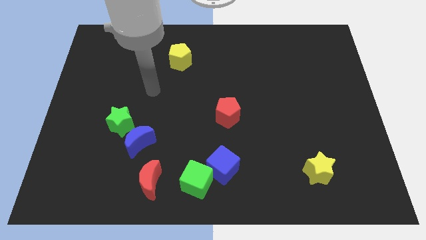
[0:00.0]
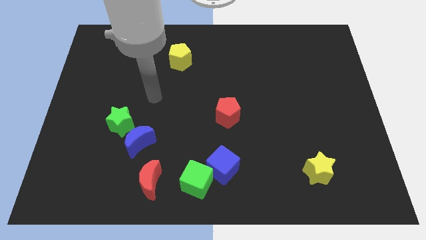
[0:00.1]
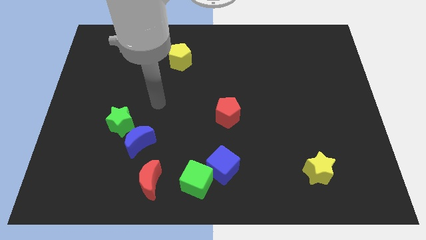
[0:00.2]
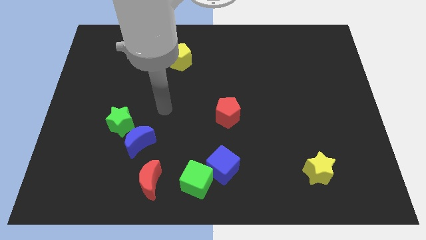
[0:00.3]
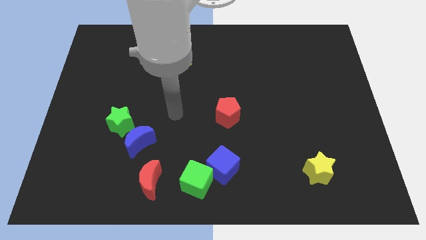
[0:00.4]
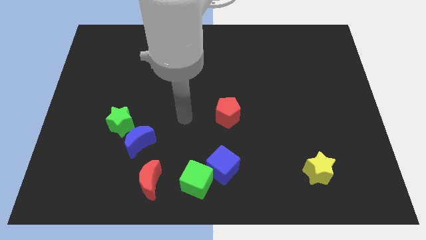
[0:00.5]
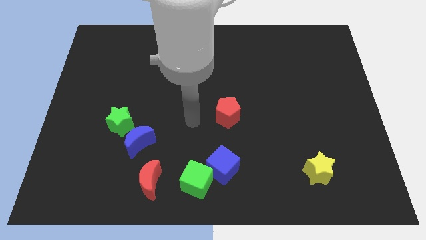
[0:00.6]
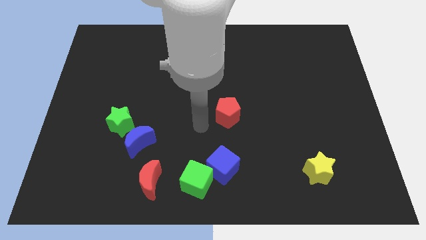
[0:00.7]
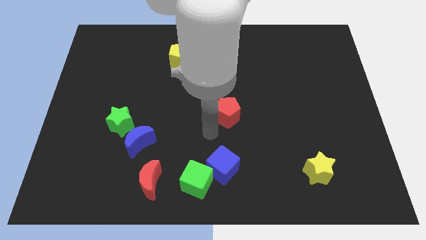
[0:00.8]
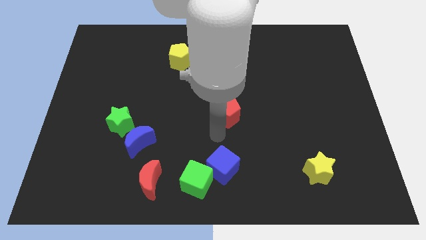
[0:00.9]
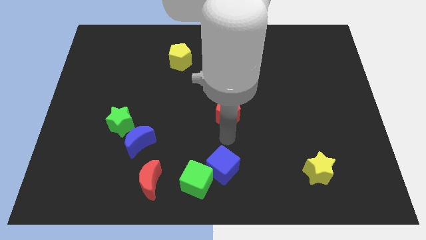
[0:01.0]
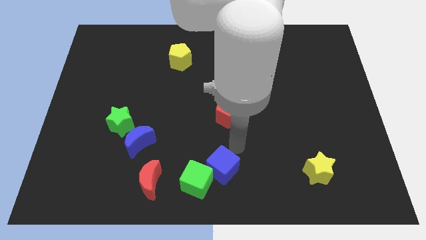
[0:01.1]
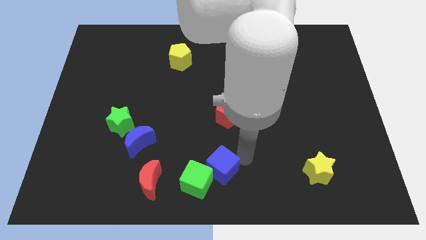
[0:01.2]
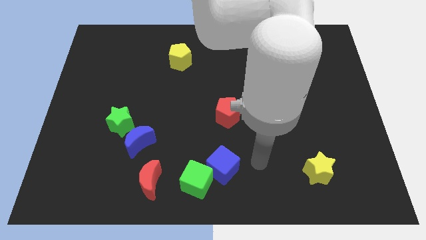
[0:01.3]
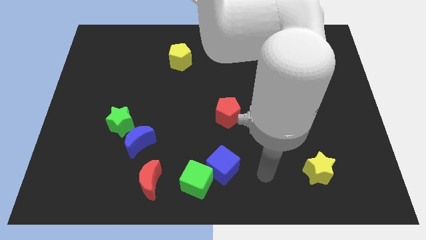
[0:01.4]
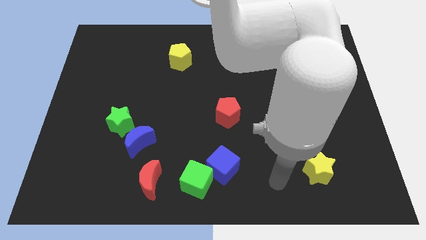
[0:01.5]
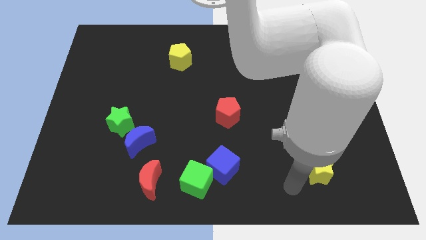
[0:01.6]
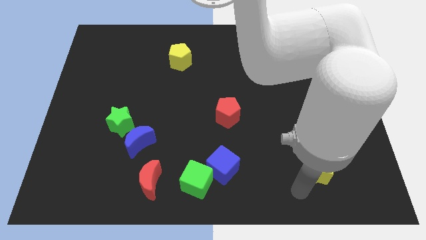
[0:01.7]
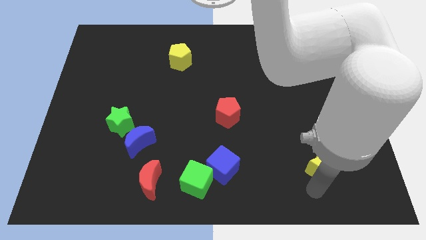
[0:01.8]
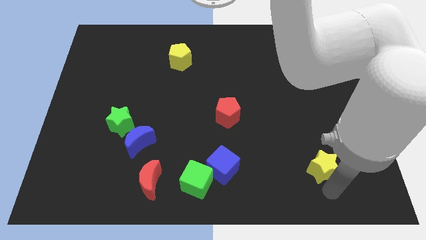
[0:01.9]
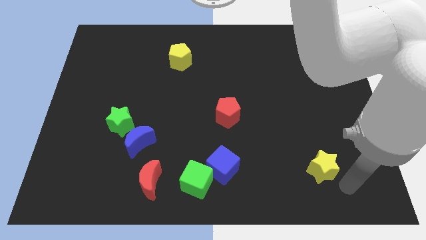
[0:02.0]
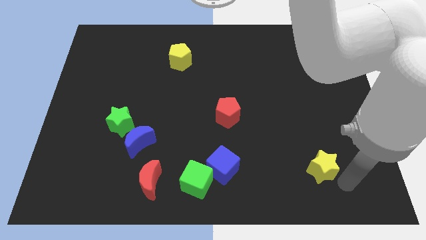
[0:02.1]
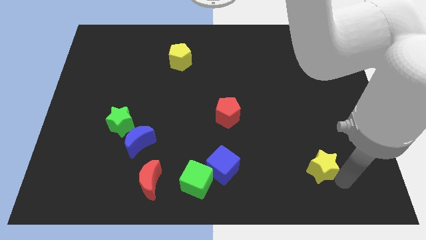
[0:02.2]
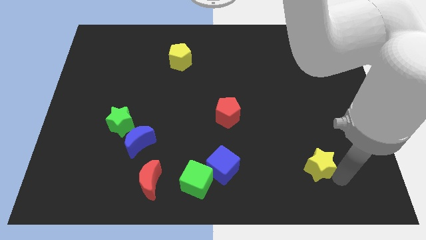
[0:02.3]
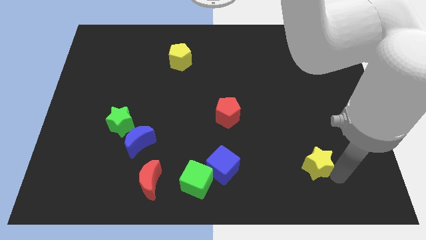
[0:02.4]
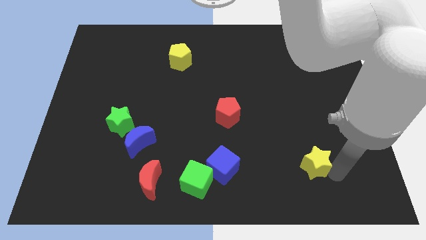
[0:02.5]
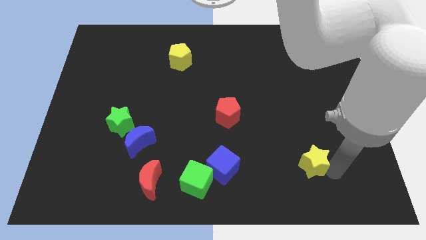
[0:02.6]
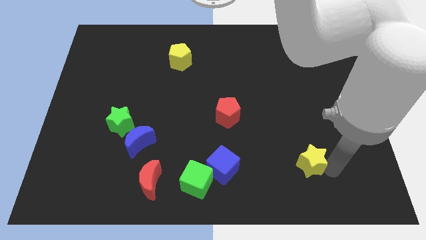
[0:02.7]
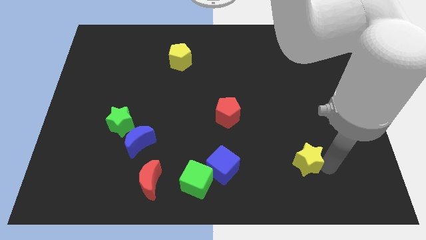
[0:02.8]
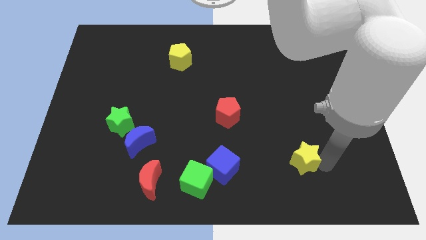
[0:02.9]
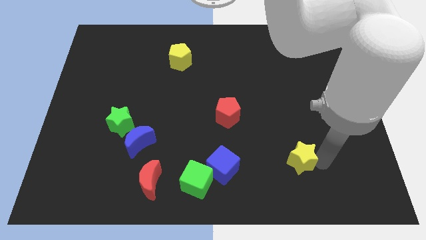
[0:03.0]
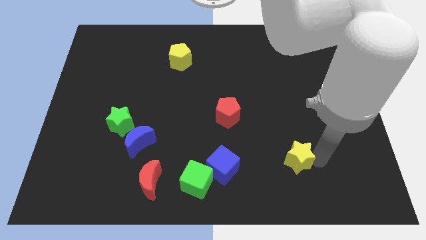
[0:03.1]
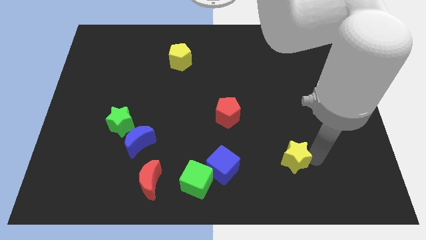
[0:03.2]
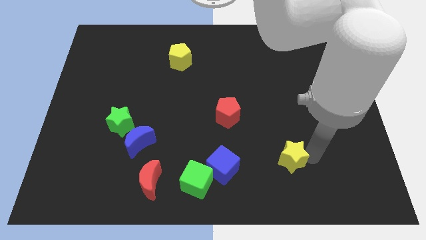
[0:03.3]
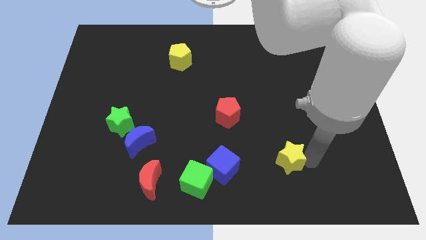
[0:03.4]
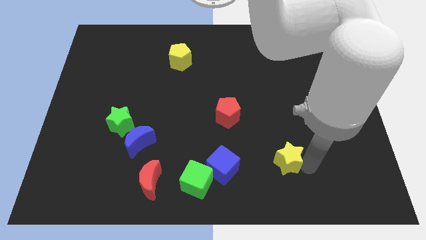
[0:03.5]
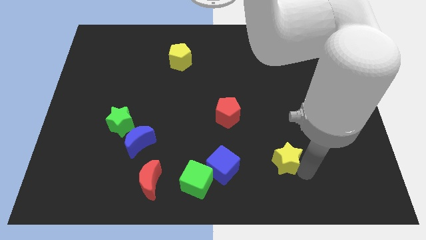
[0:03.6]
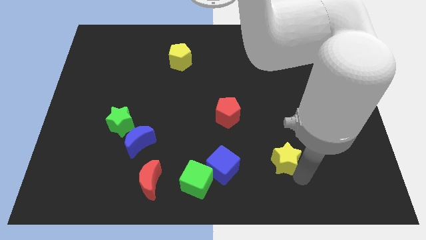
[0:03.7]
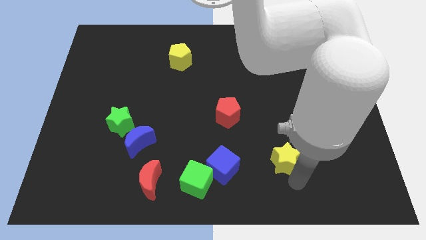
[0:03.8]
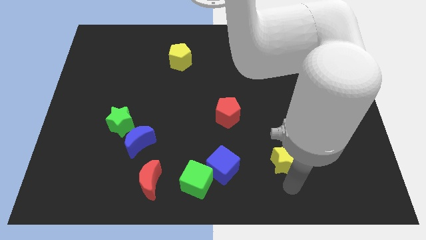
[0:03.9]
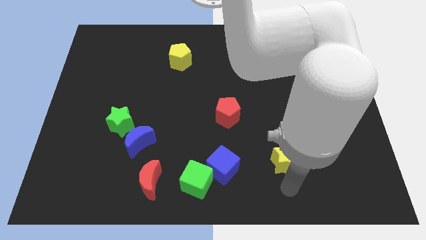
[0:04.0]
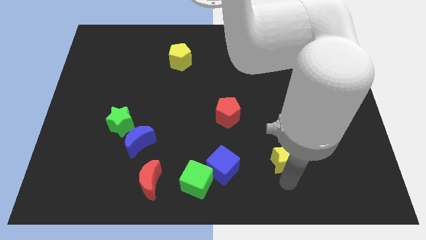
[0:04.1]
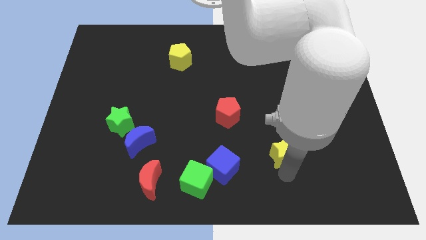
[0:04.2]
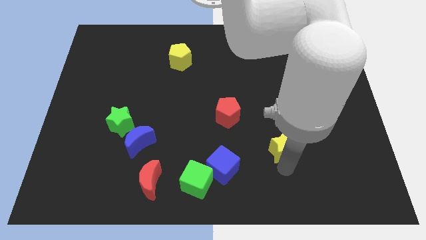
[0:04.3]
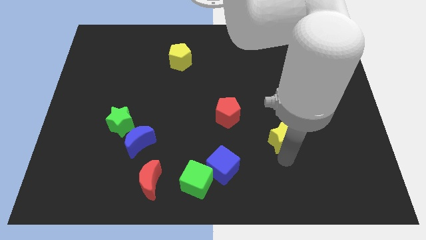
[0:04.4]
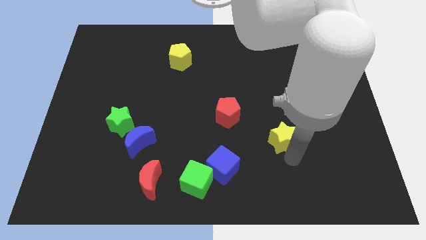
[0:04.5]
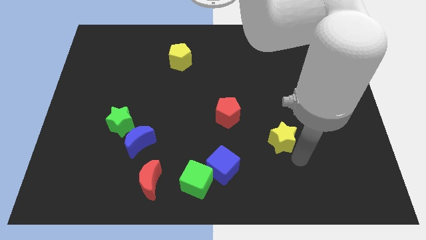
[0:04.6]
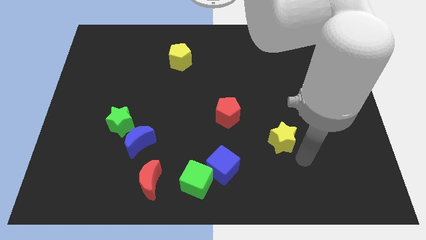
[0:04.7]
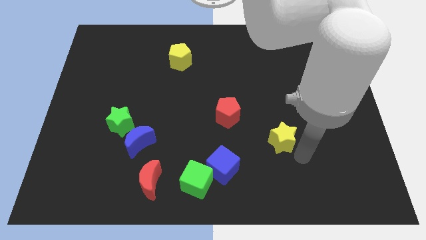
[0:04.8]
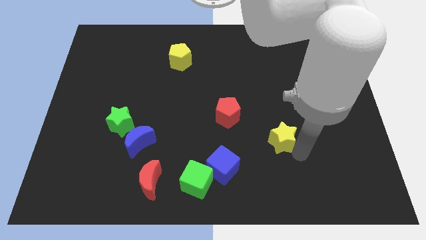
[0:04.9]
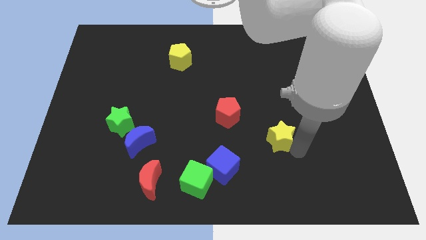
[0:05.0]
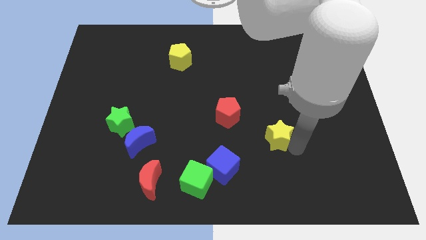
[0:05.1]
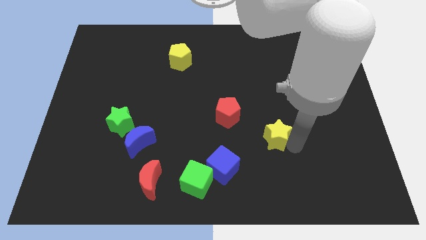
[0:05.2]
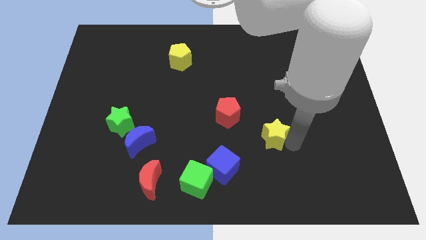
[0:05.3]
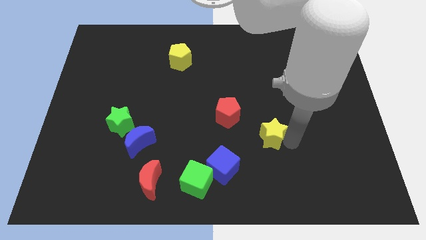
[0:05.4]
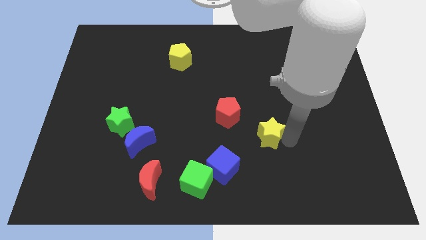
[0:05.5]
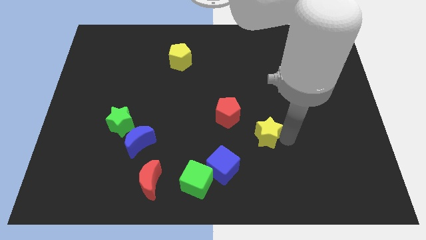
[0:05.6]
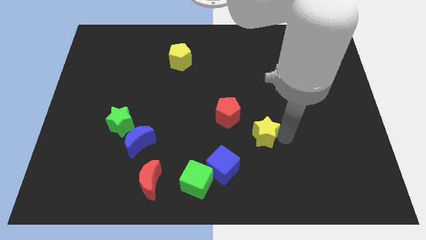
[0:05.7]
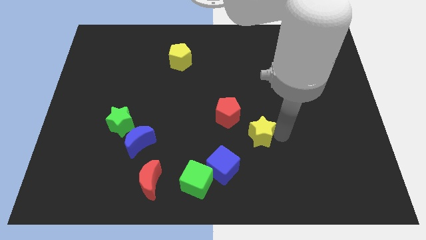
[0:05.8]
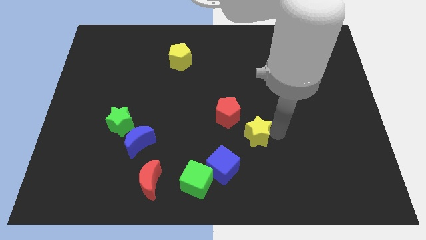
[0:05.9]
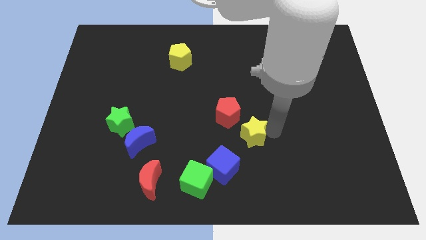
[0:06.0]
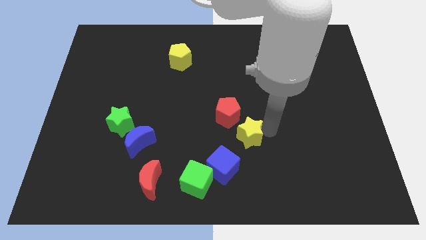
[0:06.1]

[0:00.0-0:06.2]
put the yellow star to the center of the board
